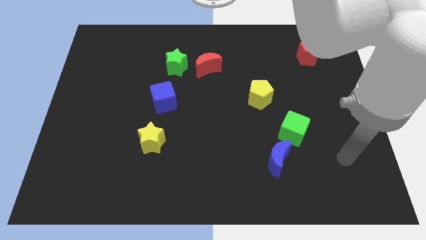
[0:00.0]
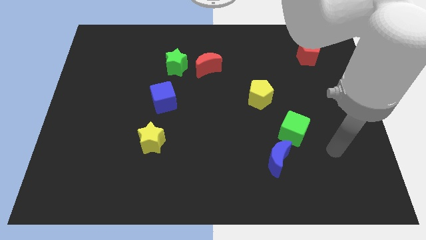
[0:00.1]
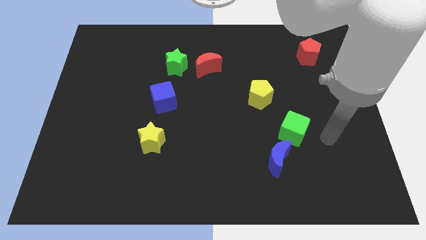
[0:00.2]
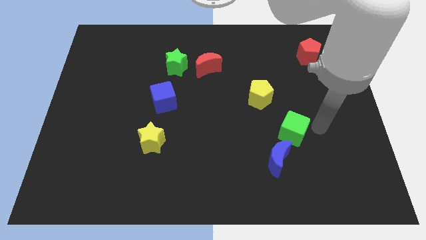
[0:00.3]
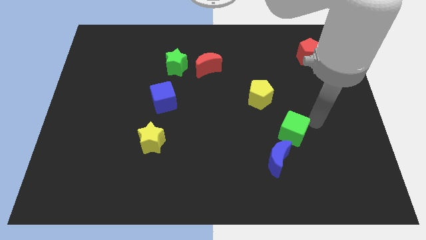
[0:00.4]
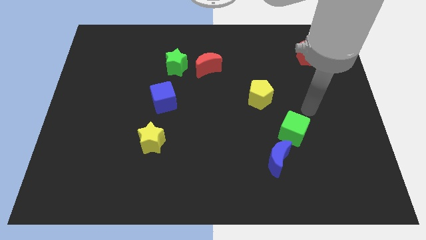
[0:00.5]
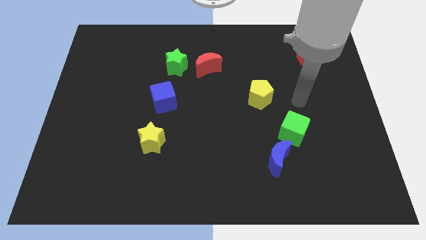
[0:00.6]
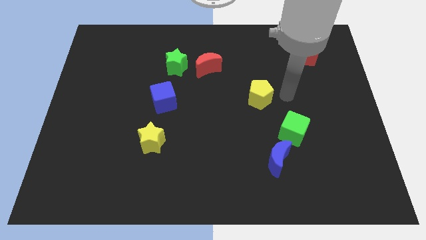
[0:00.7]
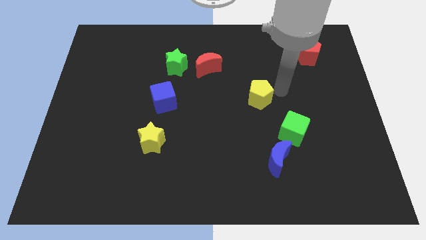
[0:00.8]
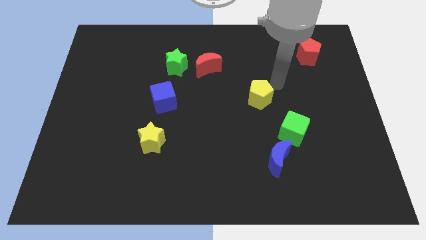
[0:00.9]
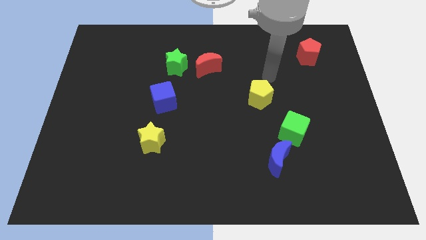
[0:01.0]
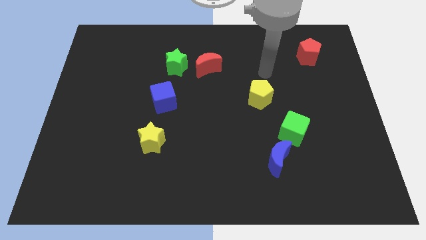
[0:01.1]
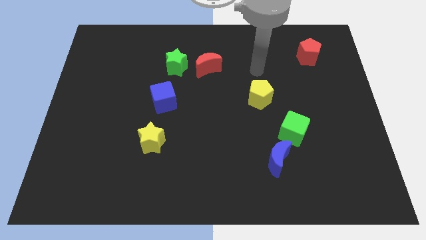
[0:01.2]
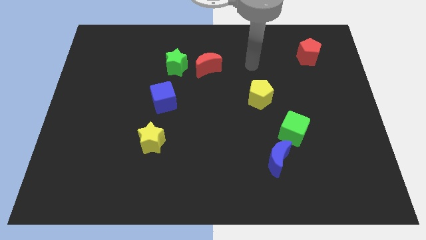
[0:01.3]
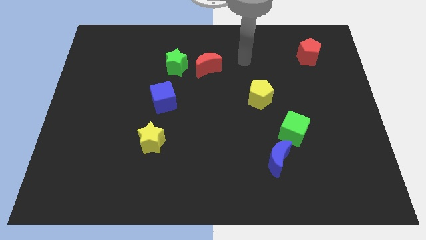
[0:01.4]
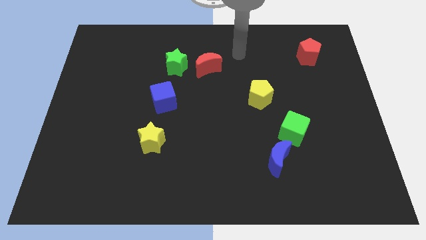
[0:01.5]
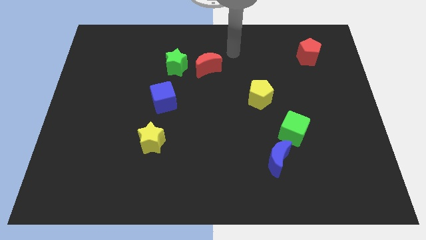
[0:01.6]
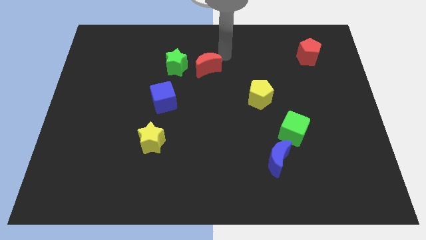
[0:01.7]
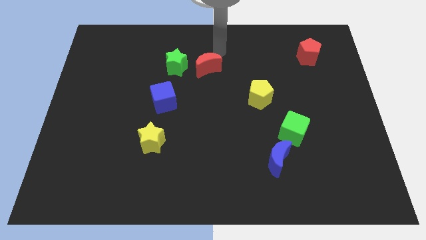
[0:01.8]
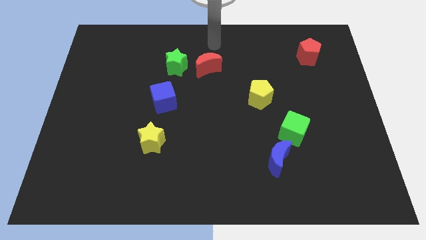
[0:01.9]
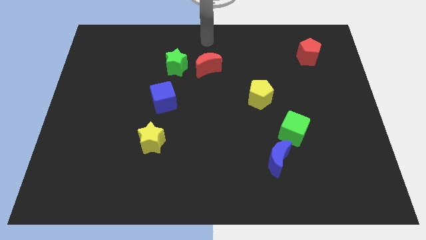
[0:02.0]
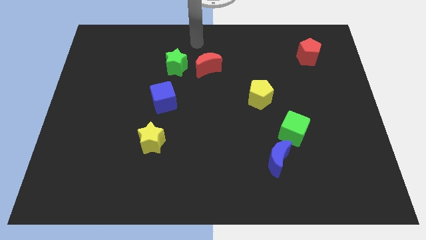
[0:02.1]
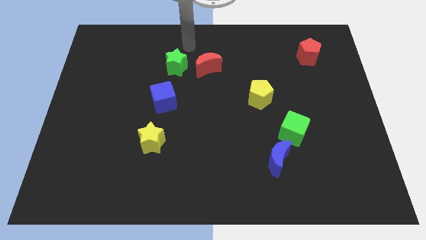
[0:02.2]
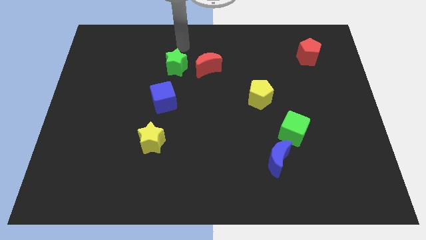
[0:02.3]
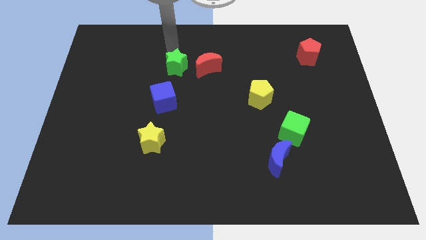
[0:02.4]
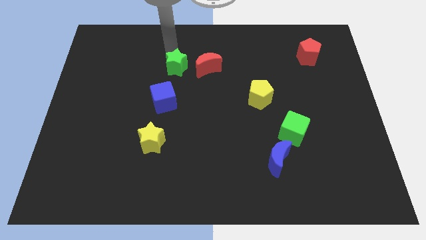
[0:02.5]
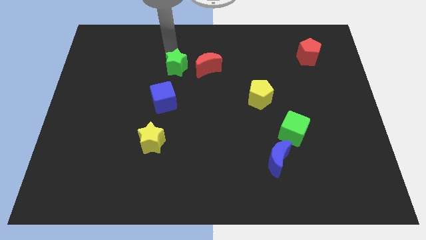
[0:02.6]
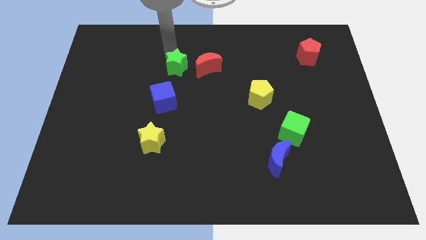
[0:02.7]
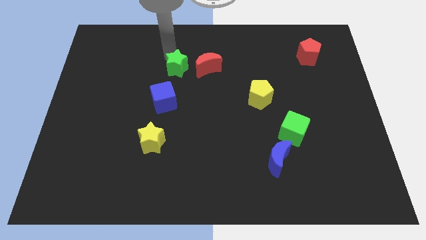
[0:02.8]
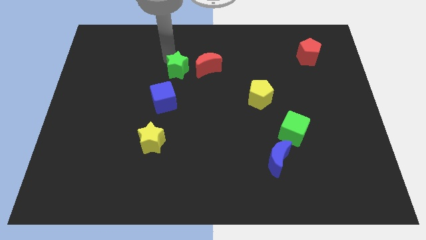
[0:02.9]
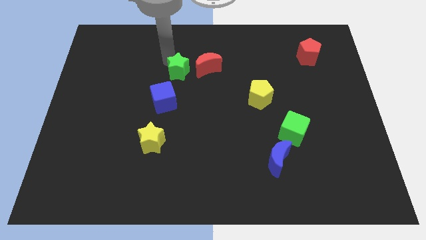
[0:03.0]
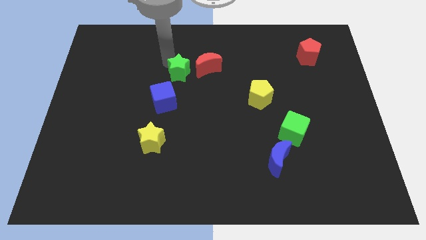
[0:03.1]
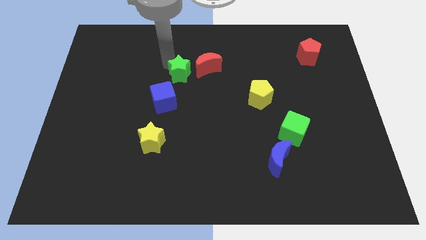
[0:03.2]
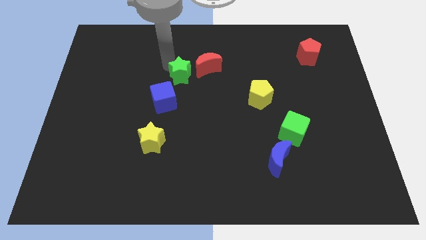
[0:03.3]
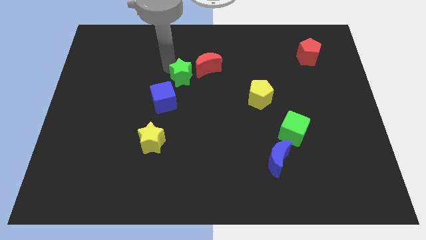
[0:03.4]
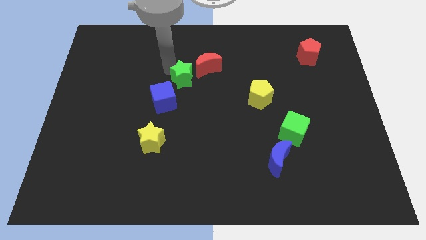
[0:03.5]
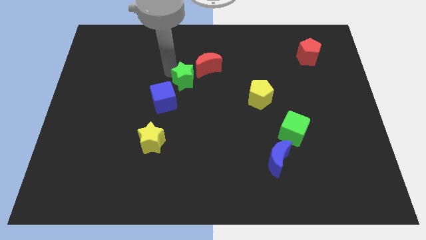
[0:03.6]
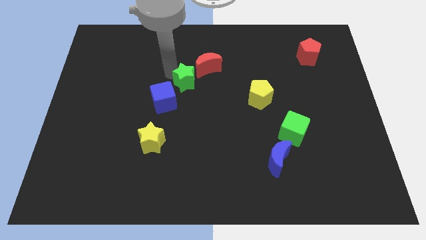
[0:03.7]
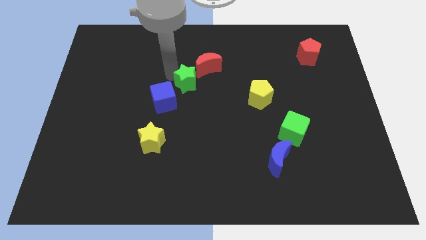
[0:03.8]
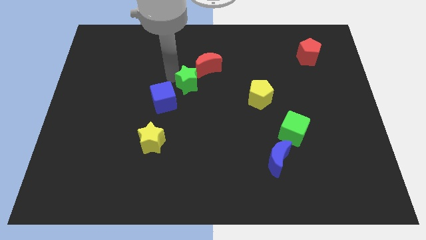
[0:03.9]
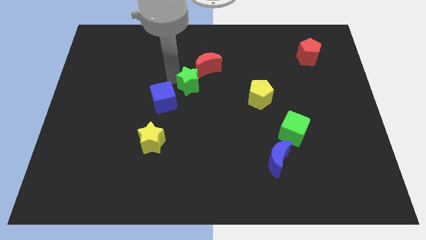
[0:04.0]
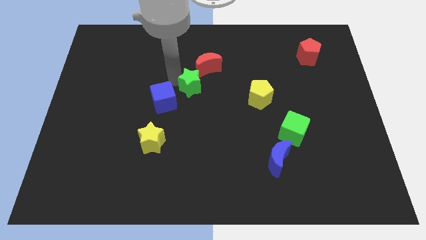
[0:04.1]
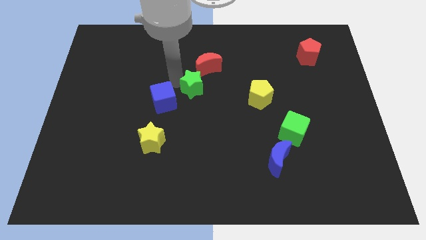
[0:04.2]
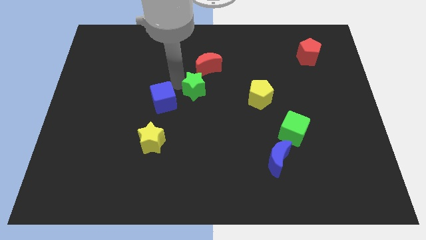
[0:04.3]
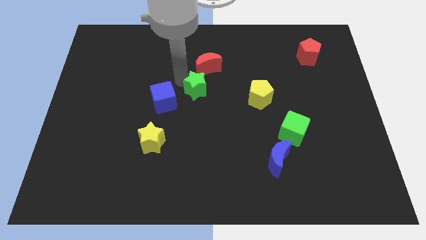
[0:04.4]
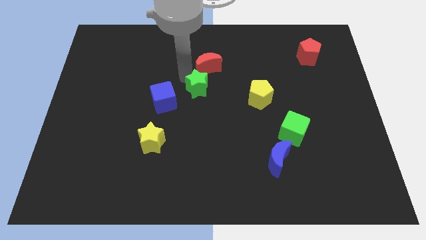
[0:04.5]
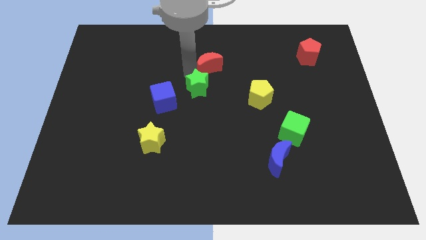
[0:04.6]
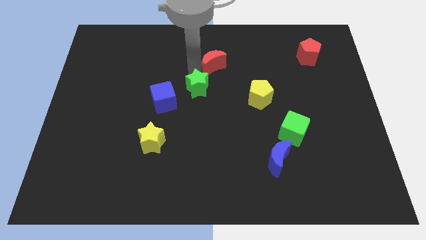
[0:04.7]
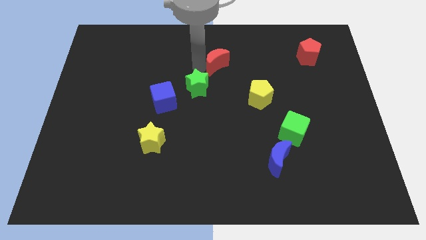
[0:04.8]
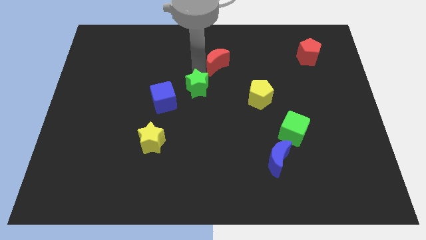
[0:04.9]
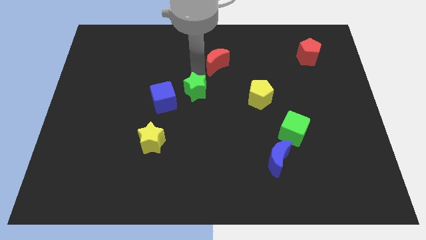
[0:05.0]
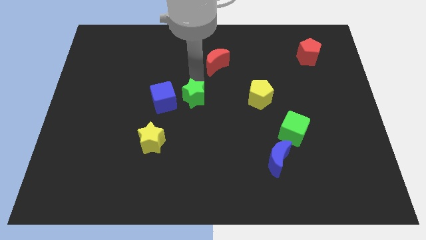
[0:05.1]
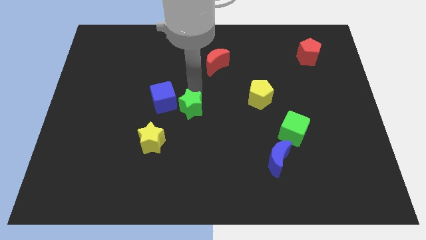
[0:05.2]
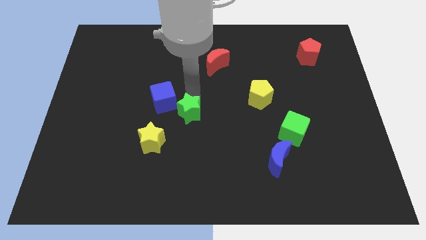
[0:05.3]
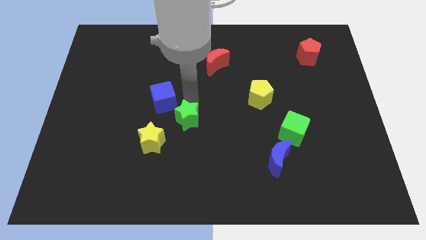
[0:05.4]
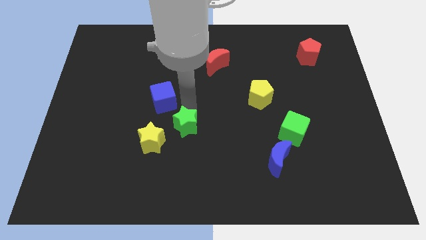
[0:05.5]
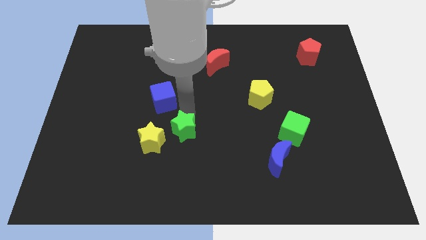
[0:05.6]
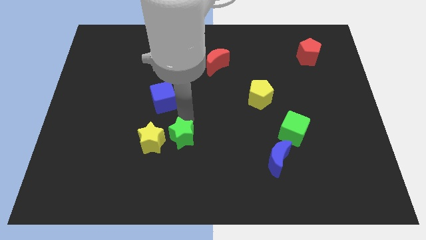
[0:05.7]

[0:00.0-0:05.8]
push the green star down

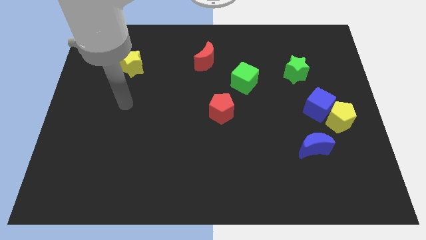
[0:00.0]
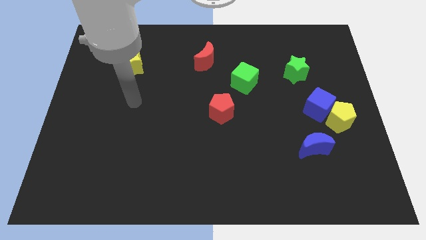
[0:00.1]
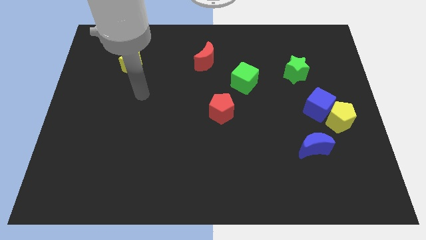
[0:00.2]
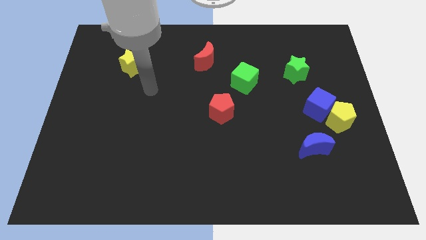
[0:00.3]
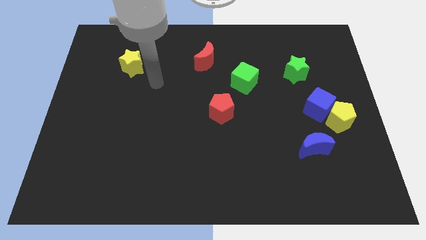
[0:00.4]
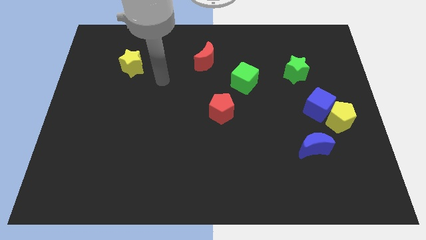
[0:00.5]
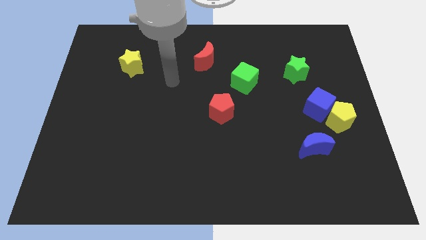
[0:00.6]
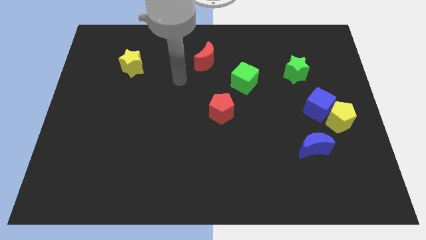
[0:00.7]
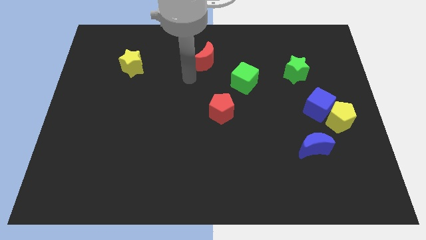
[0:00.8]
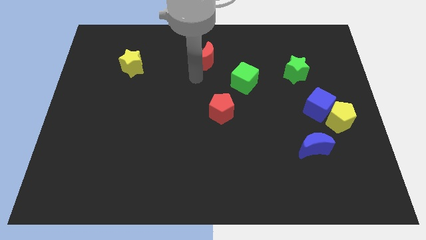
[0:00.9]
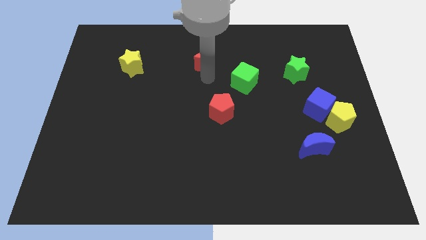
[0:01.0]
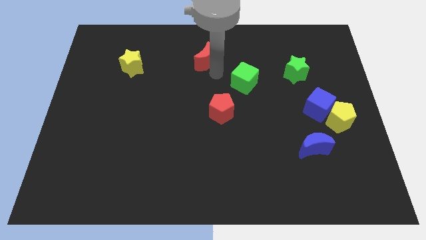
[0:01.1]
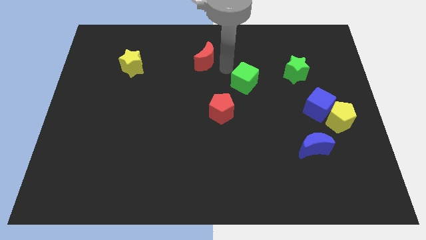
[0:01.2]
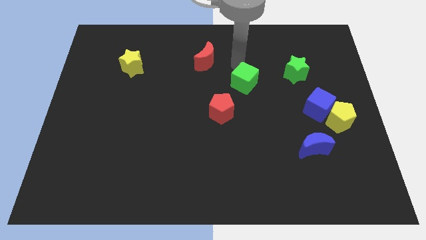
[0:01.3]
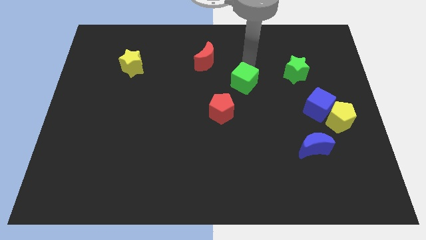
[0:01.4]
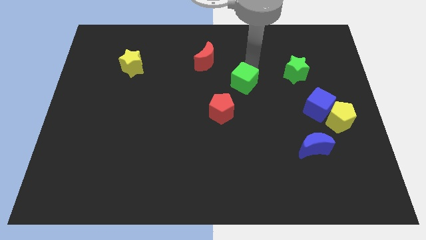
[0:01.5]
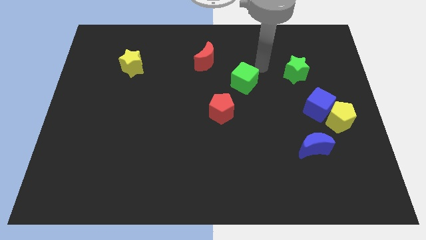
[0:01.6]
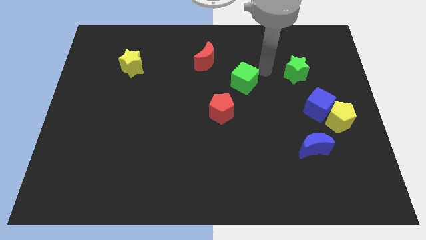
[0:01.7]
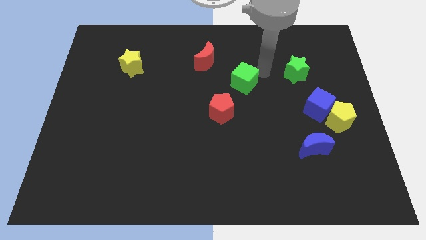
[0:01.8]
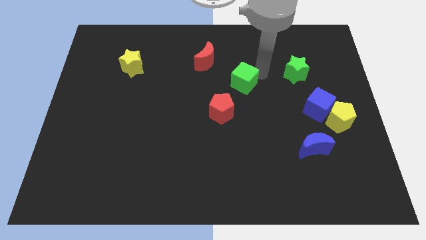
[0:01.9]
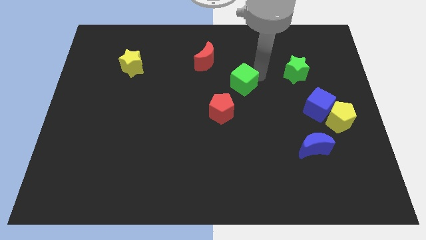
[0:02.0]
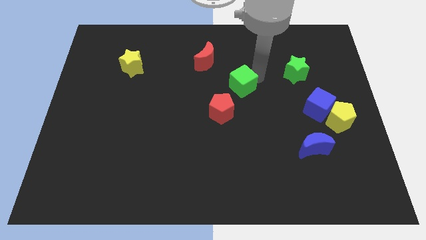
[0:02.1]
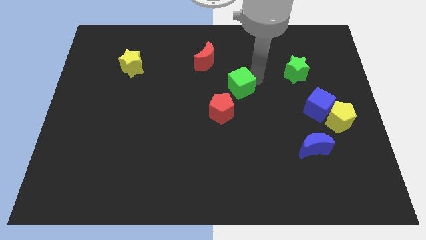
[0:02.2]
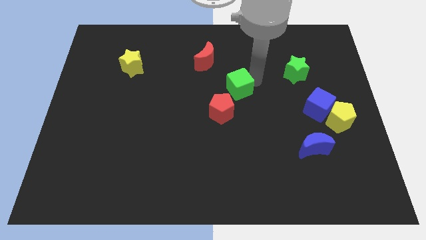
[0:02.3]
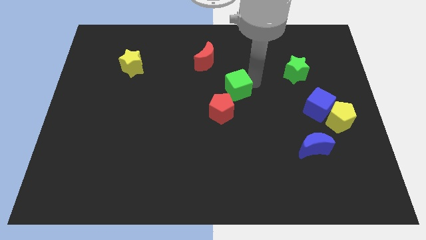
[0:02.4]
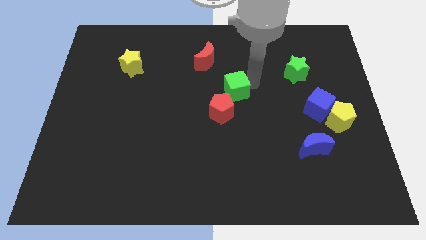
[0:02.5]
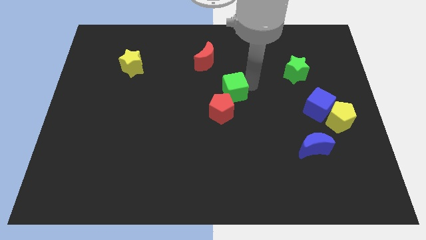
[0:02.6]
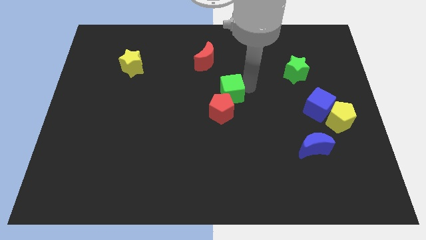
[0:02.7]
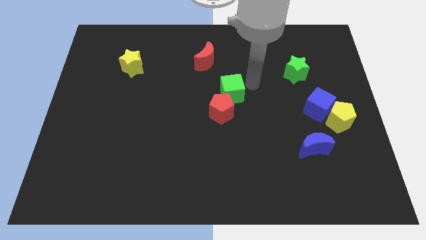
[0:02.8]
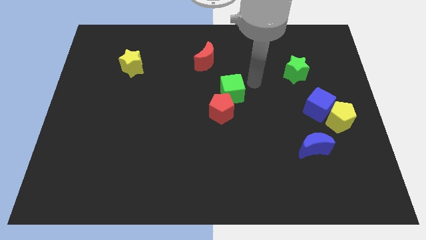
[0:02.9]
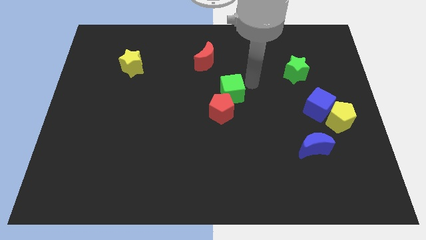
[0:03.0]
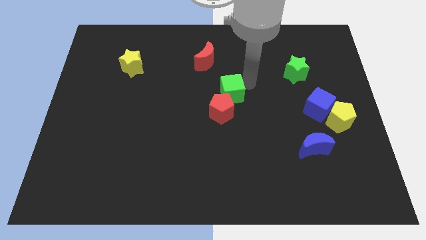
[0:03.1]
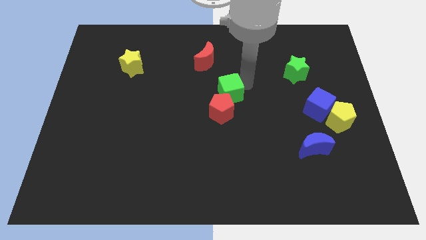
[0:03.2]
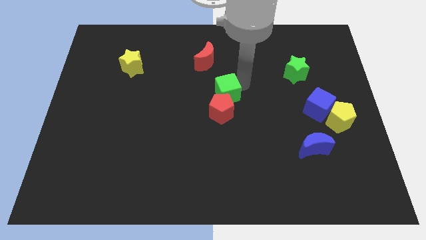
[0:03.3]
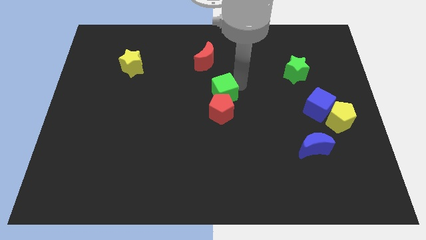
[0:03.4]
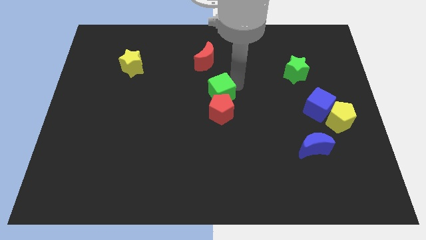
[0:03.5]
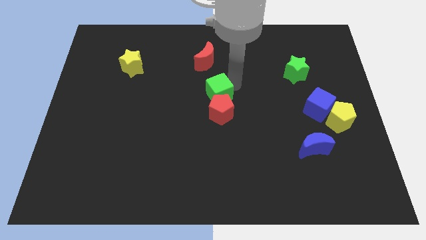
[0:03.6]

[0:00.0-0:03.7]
push the green cube a little down and left
